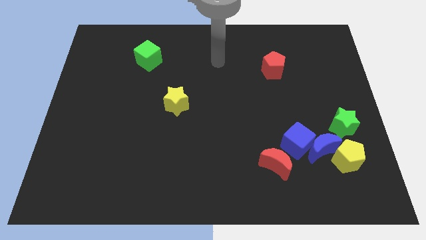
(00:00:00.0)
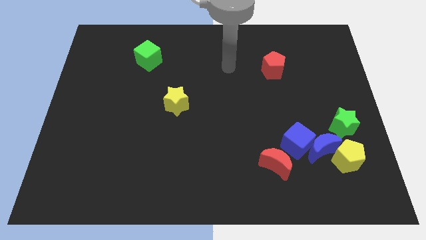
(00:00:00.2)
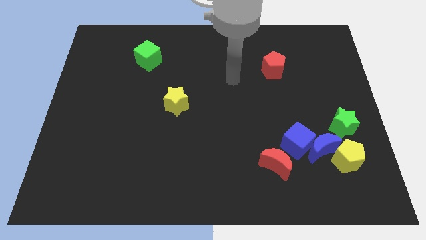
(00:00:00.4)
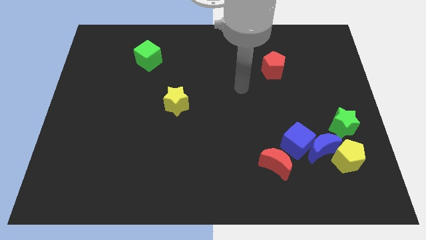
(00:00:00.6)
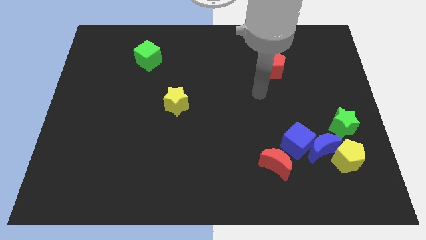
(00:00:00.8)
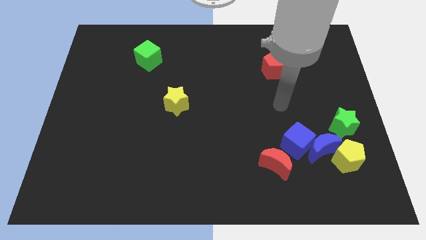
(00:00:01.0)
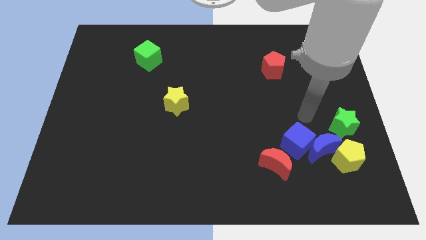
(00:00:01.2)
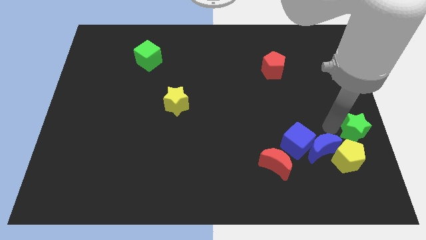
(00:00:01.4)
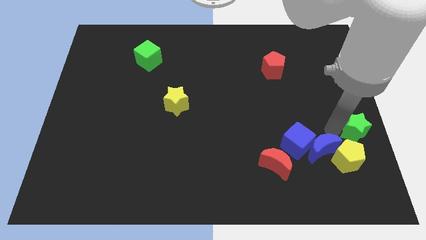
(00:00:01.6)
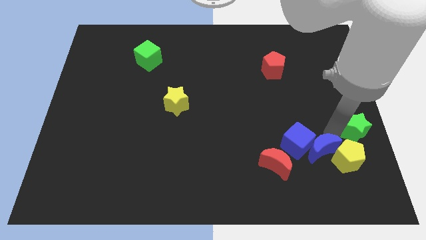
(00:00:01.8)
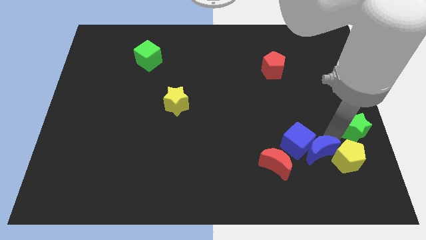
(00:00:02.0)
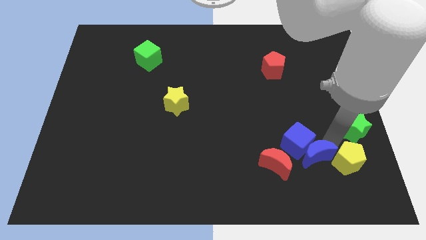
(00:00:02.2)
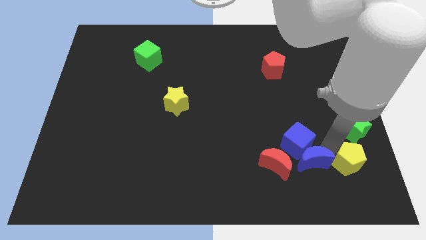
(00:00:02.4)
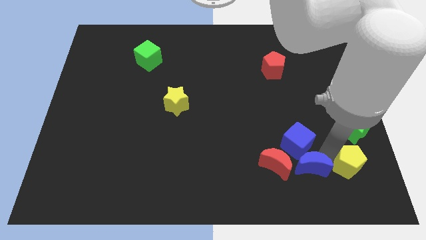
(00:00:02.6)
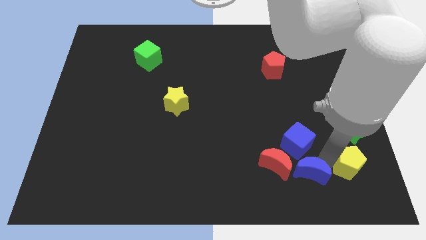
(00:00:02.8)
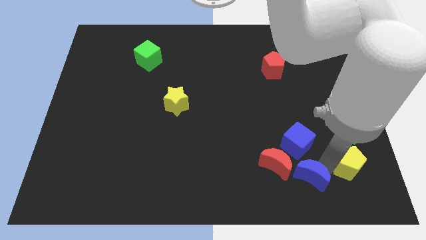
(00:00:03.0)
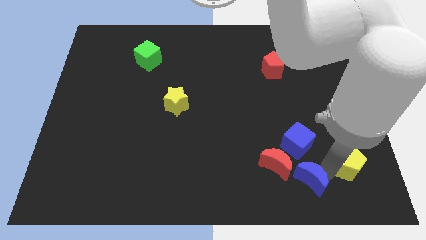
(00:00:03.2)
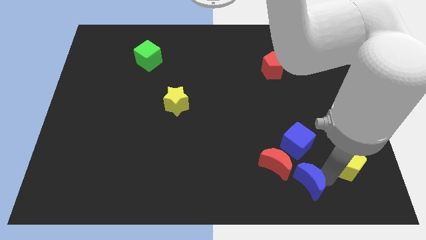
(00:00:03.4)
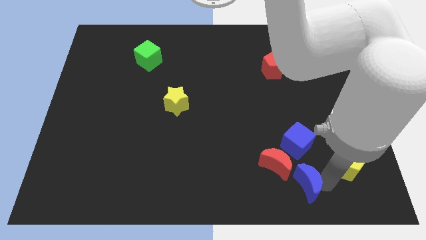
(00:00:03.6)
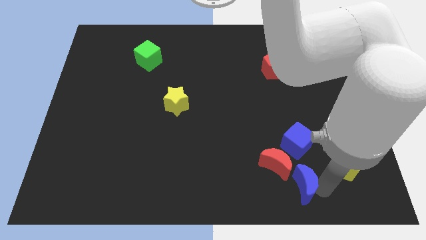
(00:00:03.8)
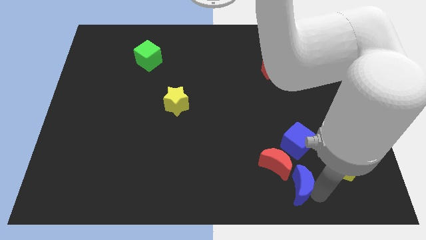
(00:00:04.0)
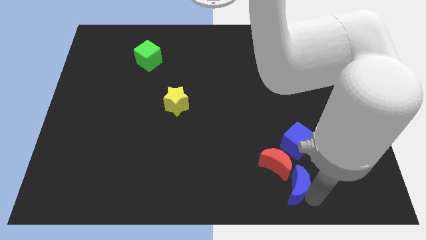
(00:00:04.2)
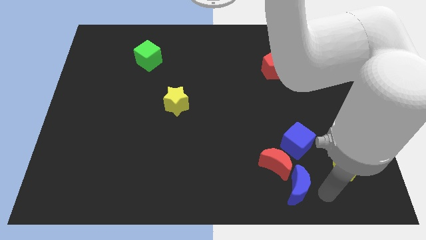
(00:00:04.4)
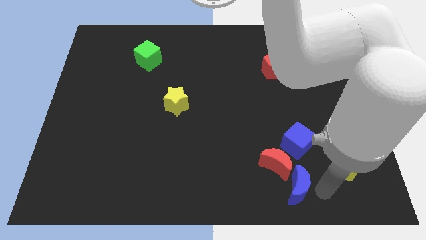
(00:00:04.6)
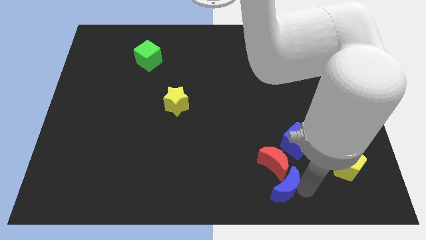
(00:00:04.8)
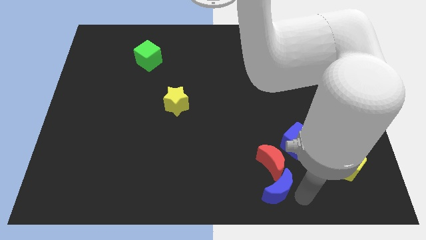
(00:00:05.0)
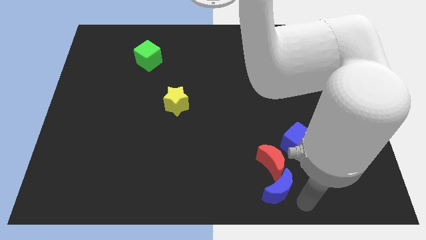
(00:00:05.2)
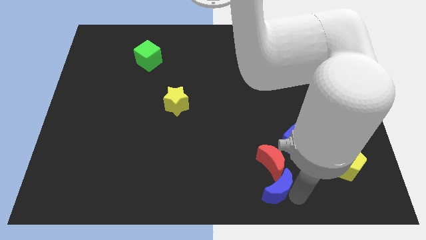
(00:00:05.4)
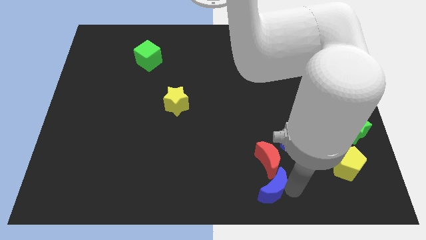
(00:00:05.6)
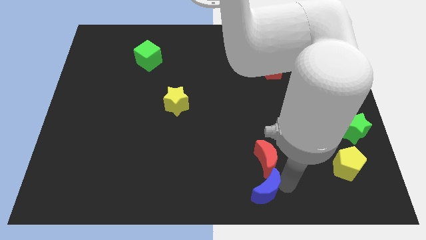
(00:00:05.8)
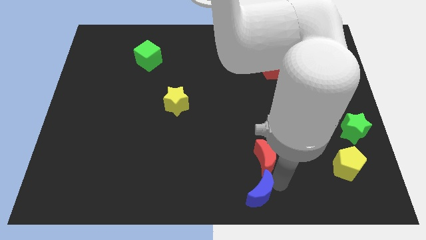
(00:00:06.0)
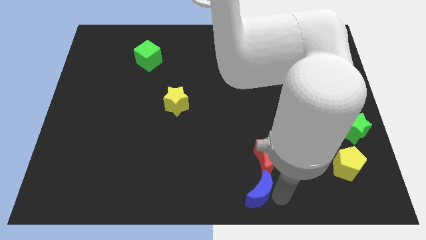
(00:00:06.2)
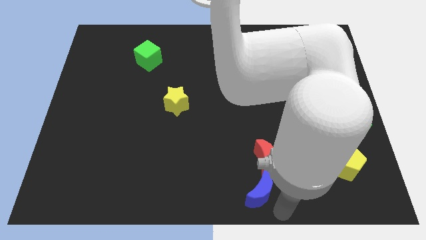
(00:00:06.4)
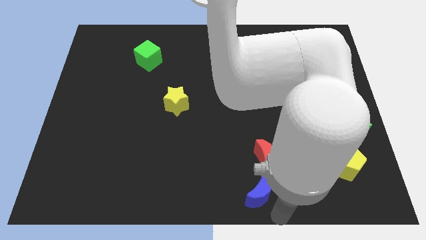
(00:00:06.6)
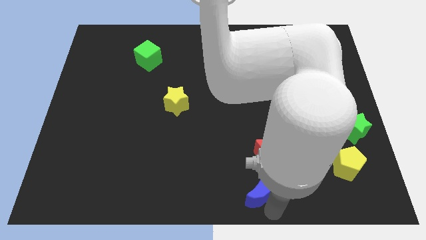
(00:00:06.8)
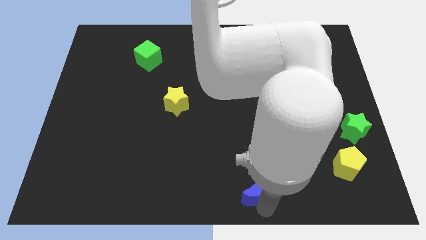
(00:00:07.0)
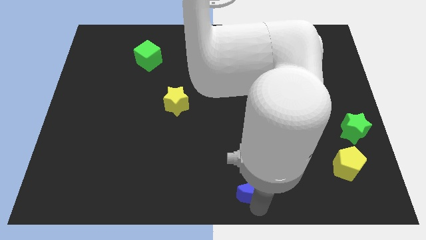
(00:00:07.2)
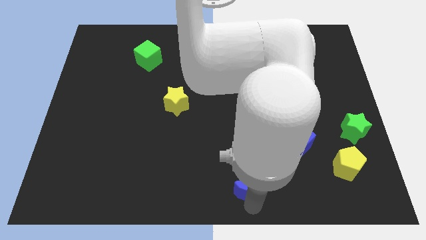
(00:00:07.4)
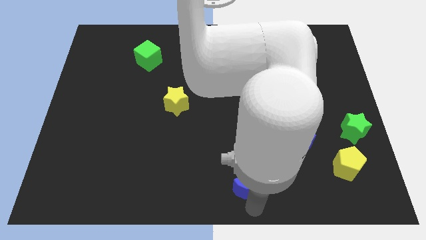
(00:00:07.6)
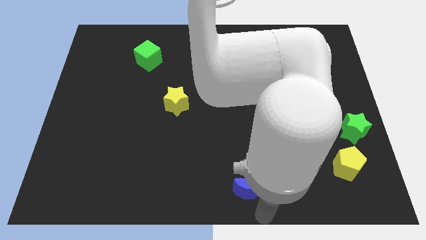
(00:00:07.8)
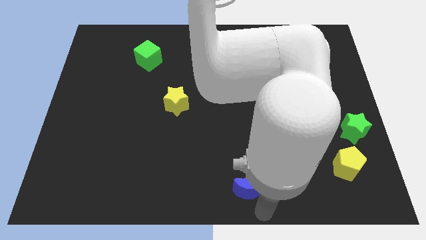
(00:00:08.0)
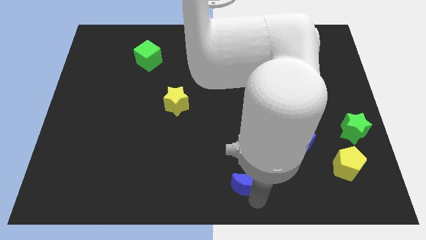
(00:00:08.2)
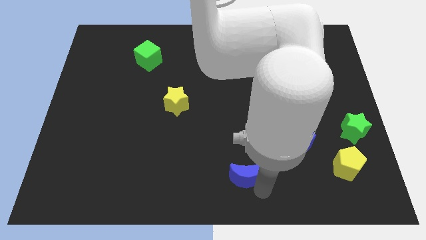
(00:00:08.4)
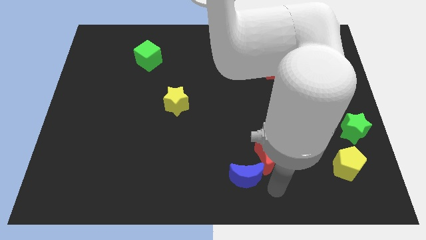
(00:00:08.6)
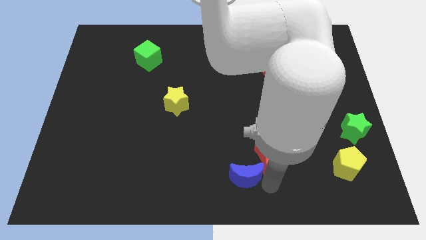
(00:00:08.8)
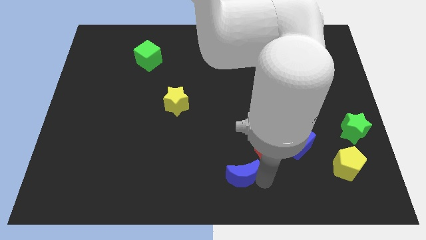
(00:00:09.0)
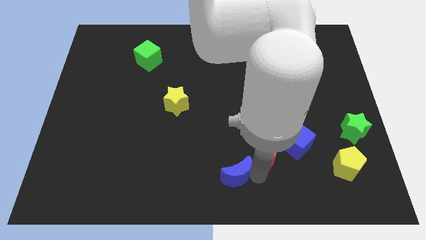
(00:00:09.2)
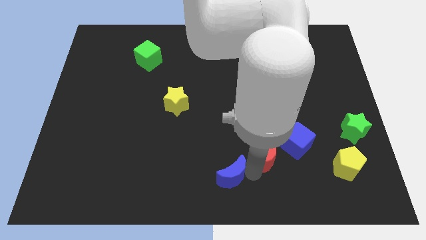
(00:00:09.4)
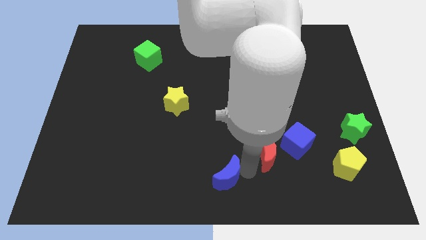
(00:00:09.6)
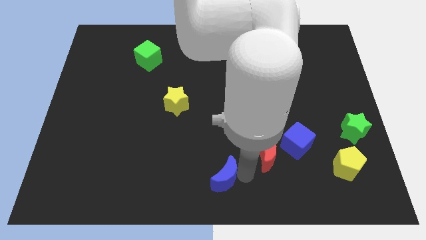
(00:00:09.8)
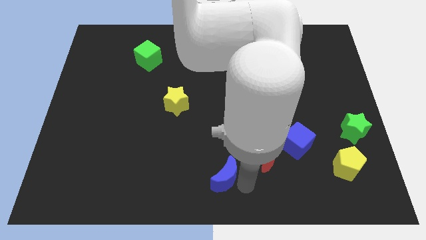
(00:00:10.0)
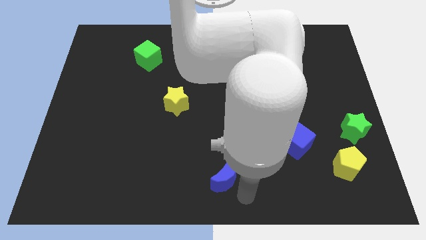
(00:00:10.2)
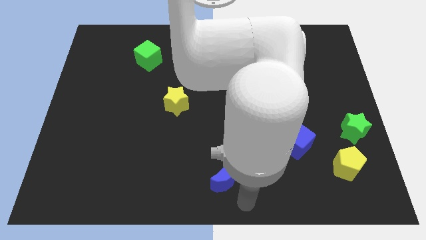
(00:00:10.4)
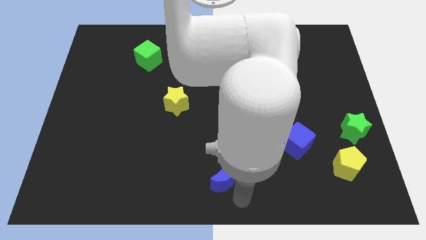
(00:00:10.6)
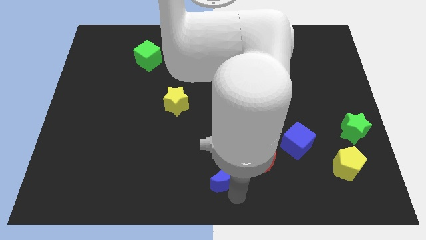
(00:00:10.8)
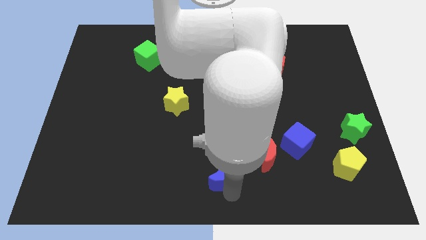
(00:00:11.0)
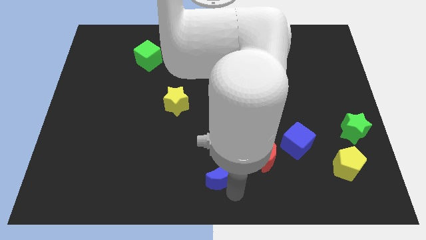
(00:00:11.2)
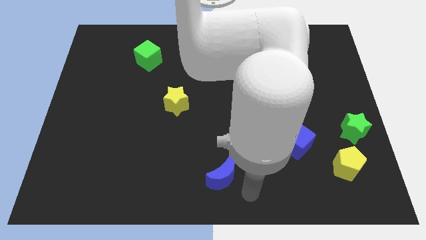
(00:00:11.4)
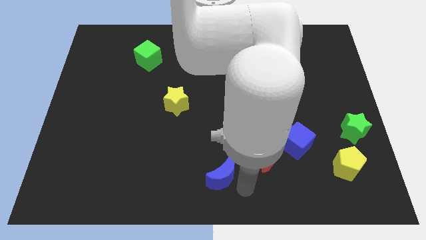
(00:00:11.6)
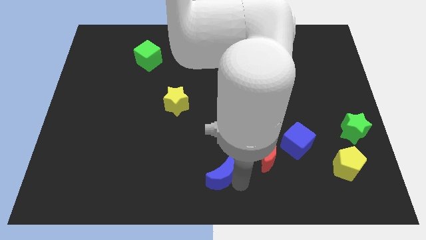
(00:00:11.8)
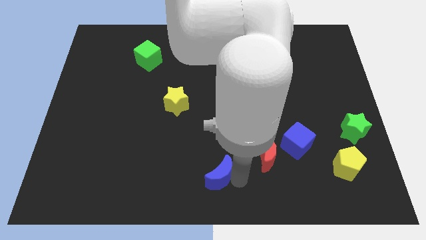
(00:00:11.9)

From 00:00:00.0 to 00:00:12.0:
push the blue moon left

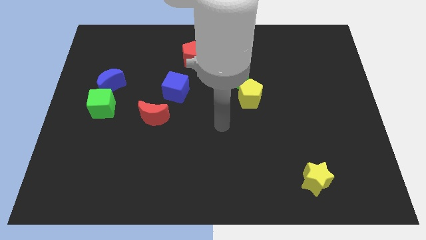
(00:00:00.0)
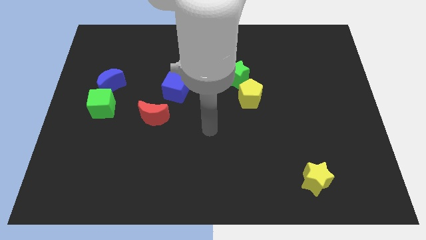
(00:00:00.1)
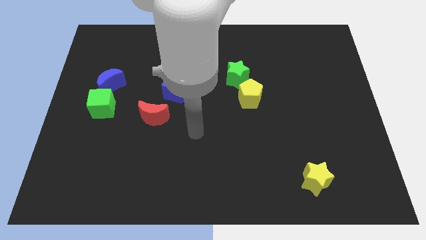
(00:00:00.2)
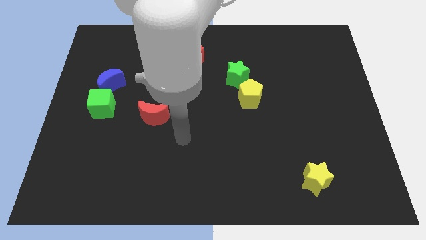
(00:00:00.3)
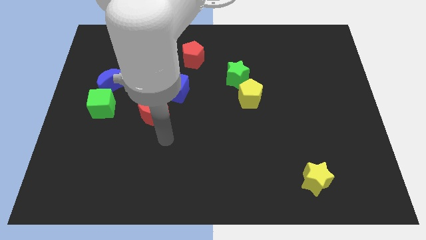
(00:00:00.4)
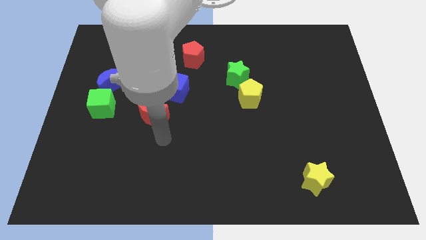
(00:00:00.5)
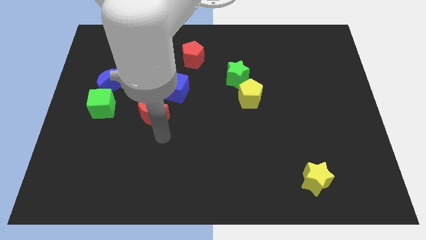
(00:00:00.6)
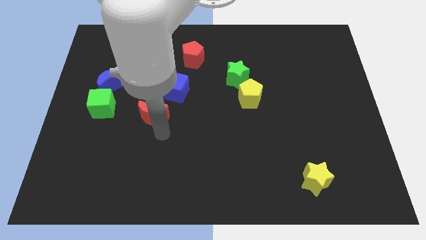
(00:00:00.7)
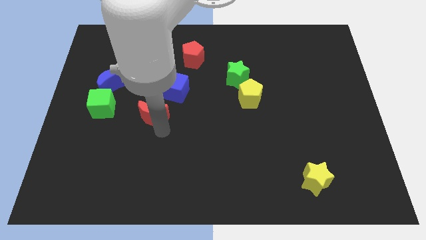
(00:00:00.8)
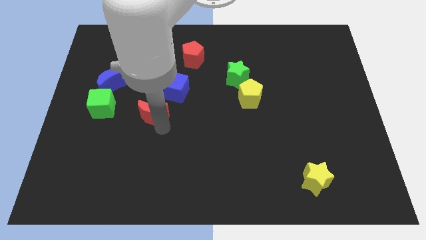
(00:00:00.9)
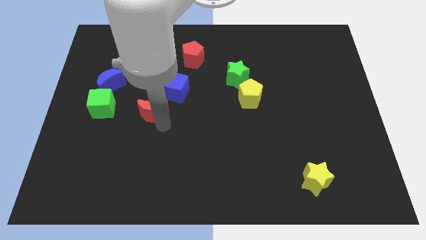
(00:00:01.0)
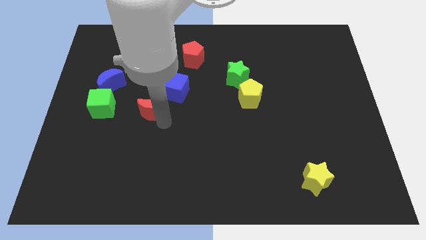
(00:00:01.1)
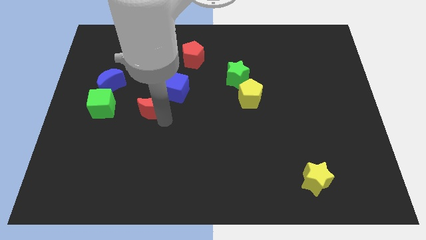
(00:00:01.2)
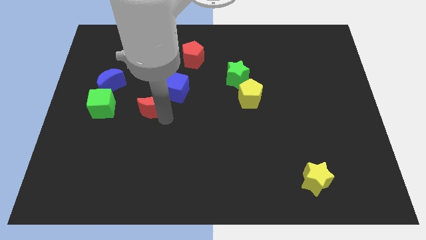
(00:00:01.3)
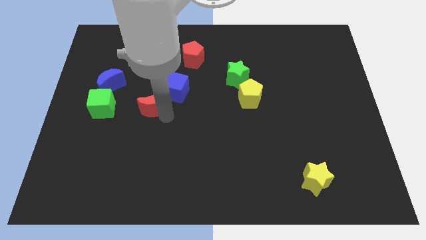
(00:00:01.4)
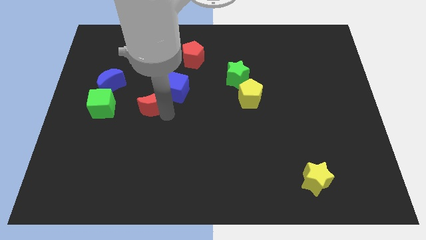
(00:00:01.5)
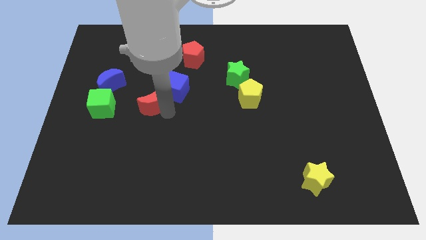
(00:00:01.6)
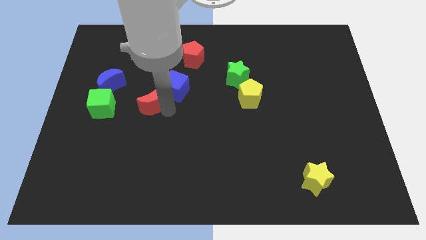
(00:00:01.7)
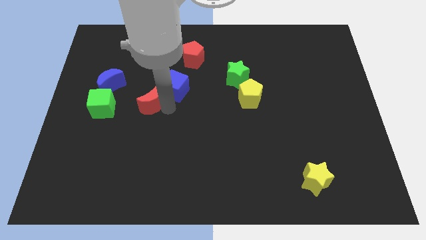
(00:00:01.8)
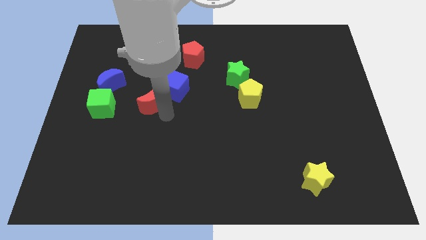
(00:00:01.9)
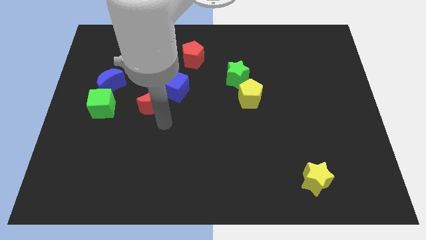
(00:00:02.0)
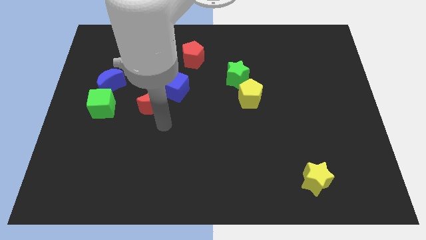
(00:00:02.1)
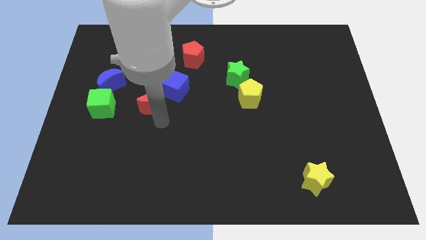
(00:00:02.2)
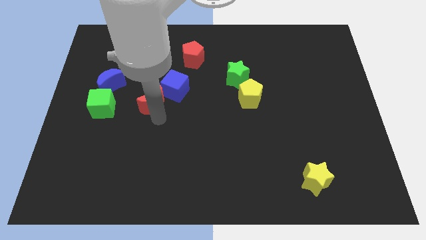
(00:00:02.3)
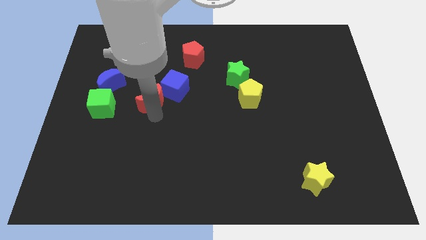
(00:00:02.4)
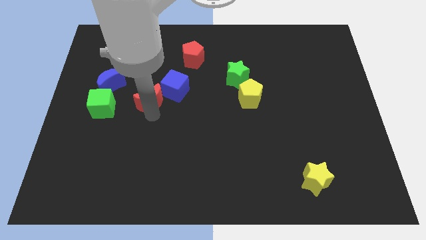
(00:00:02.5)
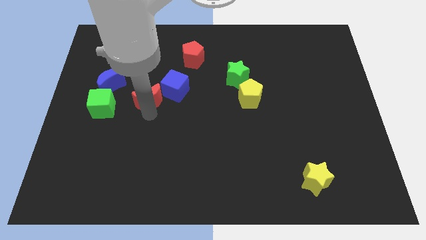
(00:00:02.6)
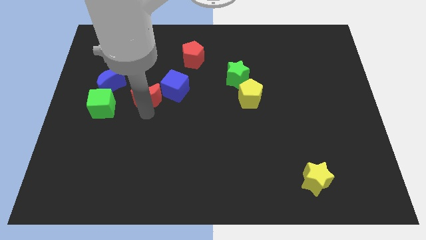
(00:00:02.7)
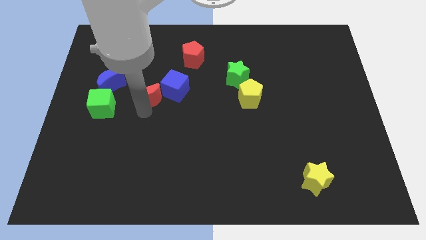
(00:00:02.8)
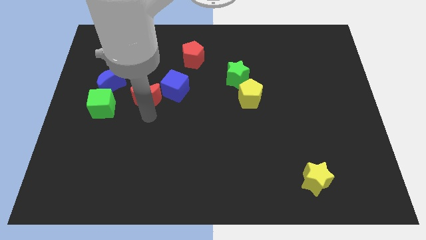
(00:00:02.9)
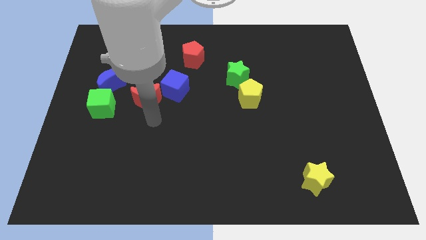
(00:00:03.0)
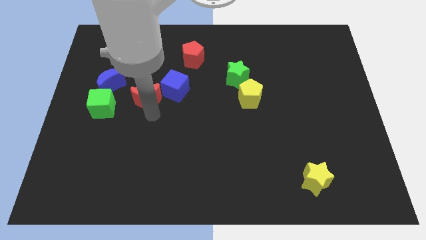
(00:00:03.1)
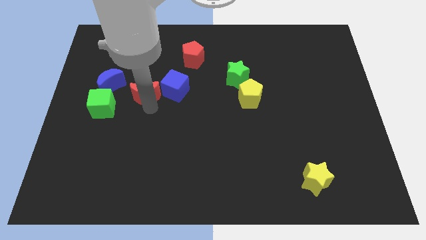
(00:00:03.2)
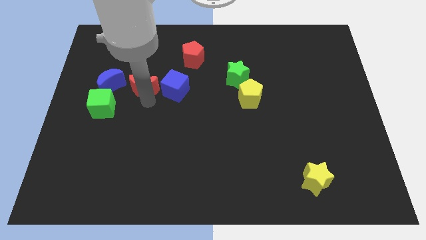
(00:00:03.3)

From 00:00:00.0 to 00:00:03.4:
slightly push the red moon upwards and then to the left
